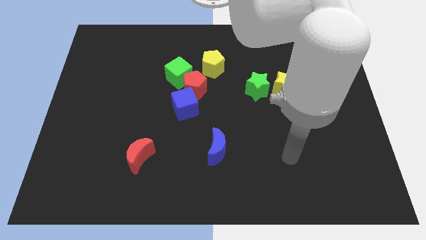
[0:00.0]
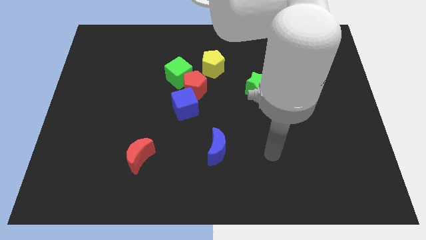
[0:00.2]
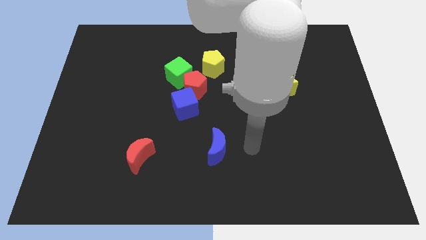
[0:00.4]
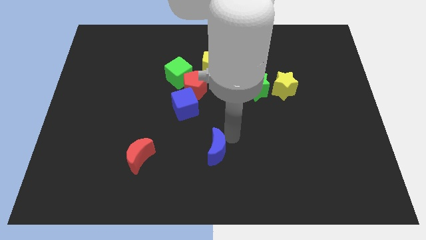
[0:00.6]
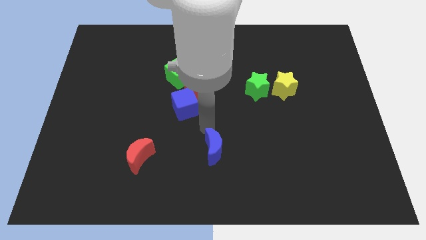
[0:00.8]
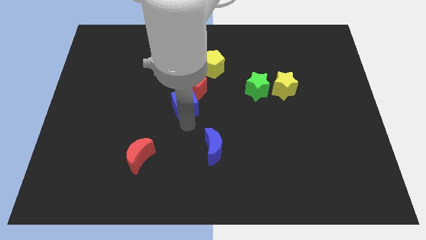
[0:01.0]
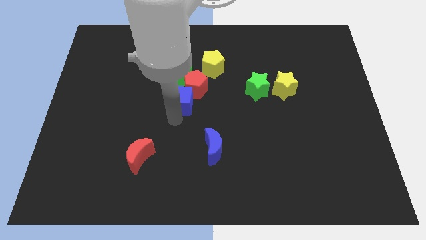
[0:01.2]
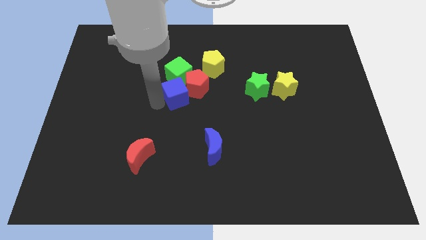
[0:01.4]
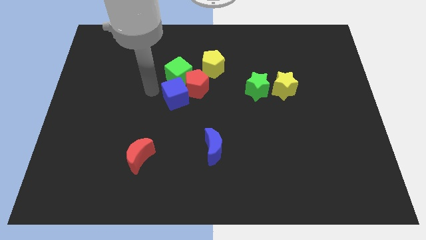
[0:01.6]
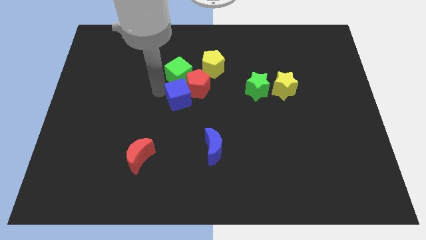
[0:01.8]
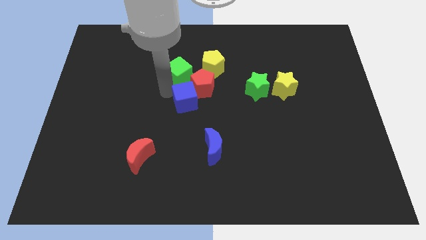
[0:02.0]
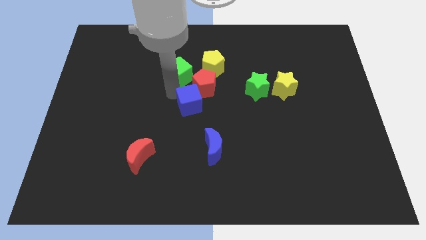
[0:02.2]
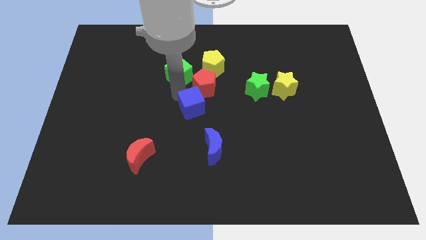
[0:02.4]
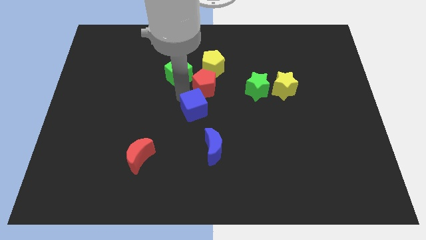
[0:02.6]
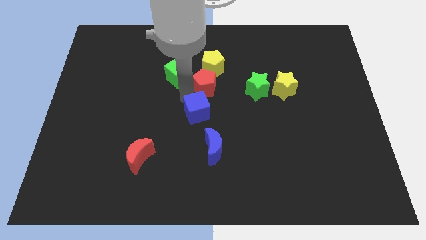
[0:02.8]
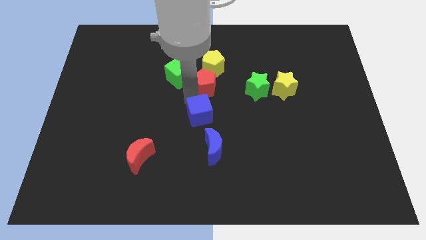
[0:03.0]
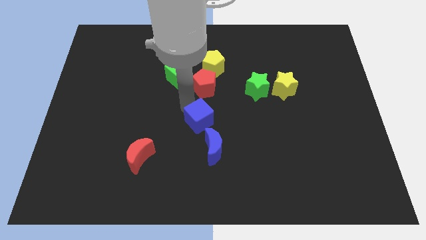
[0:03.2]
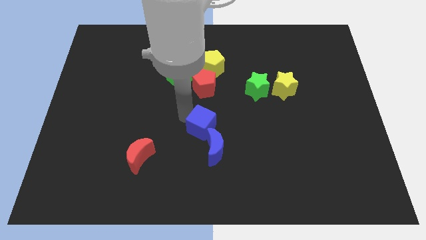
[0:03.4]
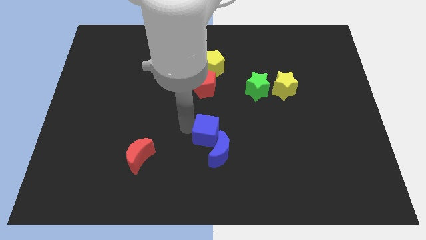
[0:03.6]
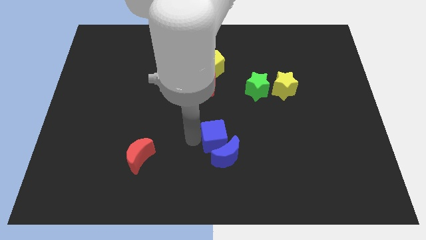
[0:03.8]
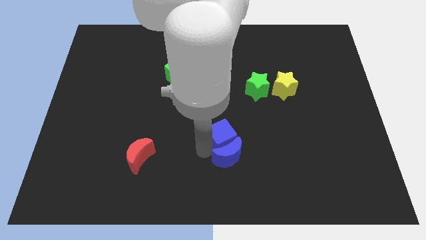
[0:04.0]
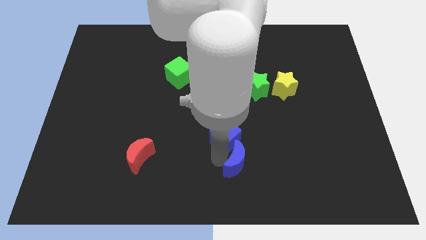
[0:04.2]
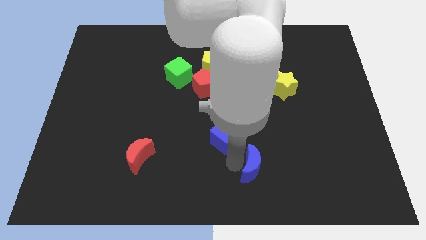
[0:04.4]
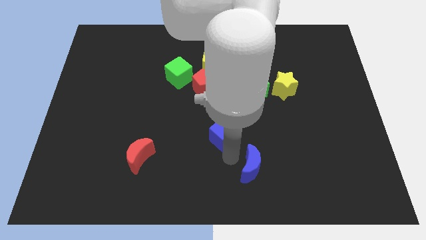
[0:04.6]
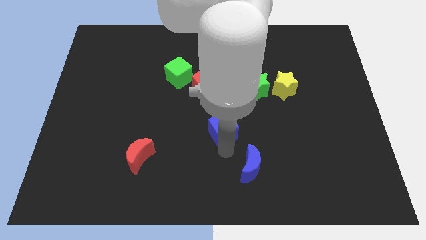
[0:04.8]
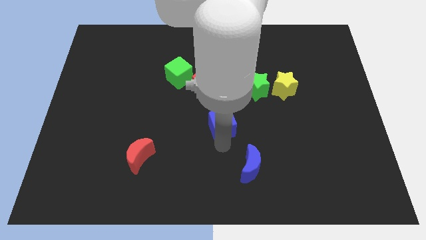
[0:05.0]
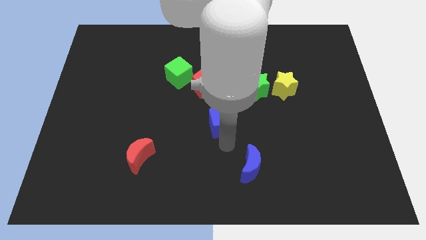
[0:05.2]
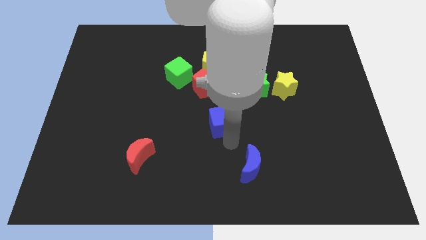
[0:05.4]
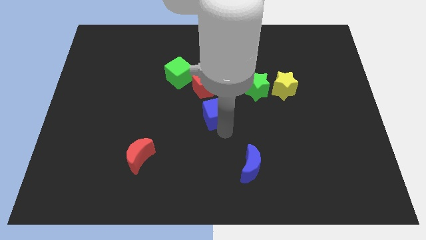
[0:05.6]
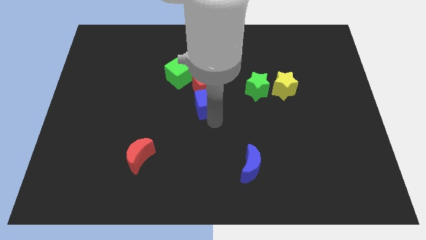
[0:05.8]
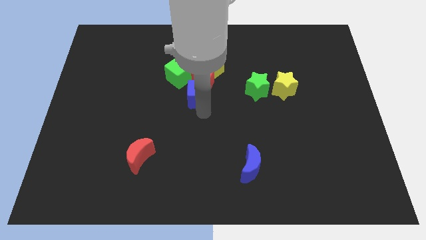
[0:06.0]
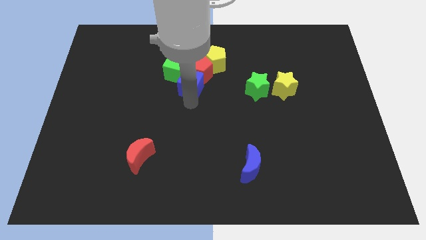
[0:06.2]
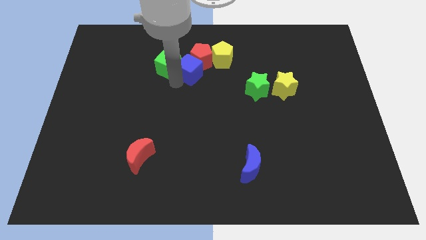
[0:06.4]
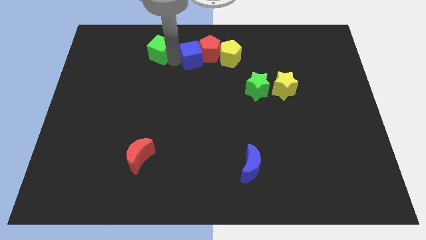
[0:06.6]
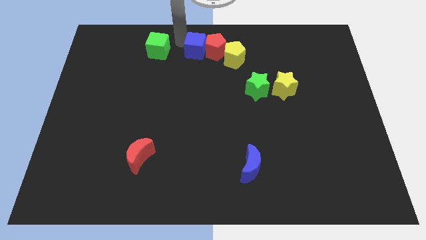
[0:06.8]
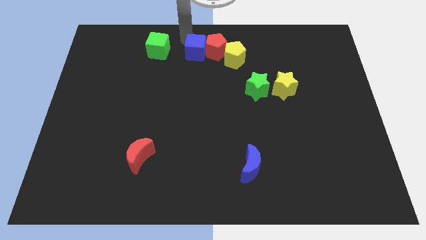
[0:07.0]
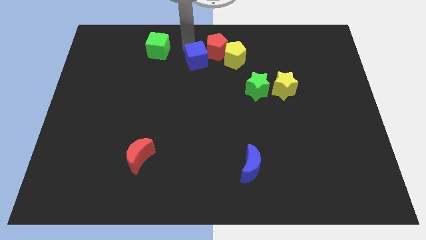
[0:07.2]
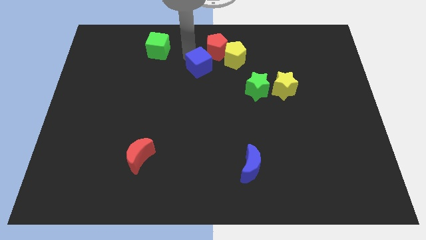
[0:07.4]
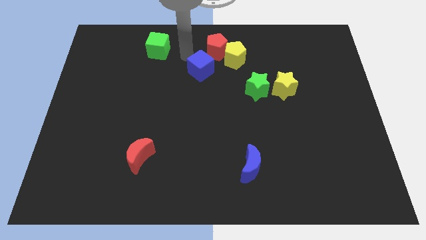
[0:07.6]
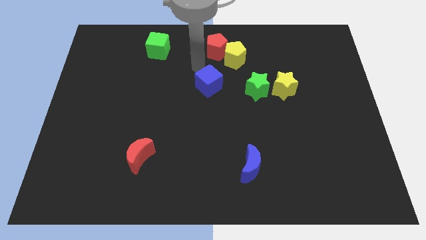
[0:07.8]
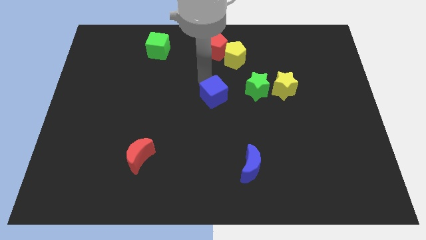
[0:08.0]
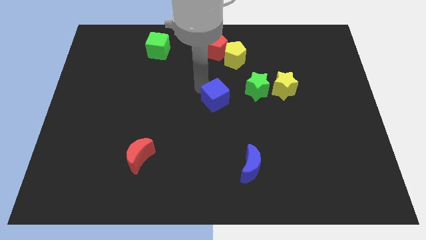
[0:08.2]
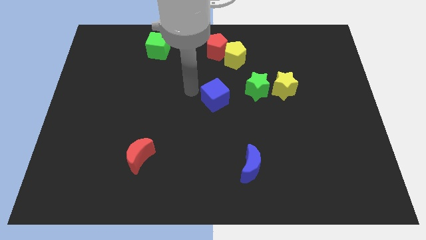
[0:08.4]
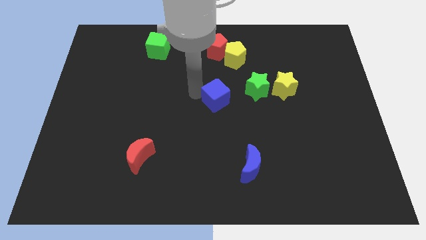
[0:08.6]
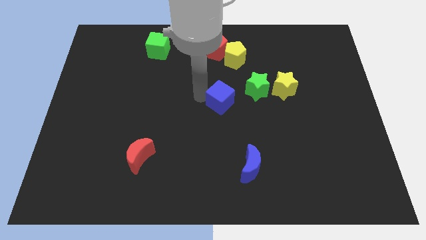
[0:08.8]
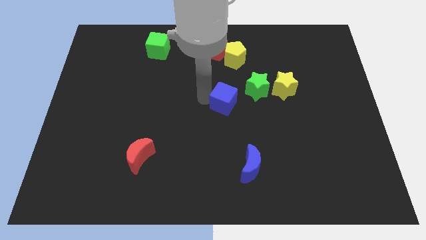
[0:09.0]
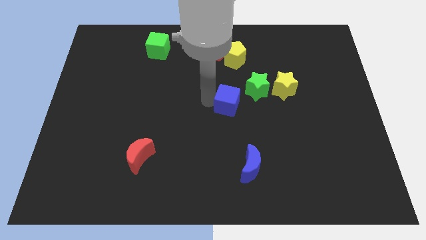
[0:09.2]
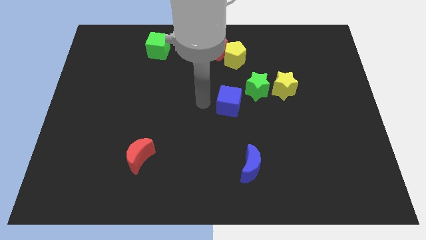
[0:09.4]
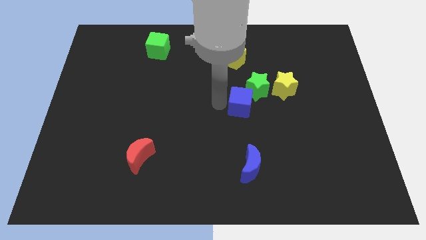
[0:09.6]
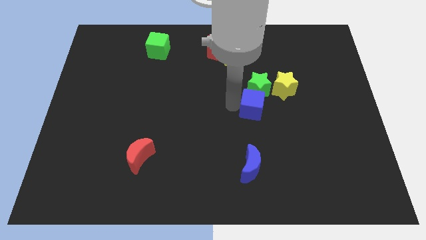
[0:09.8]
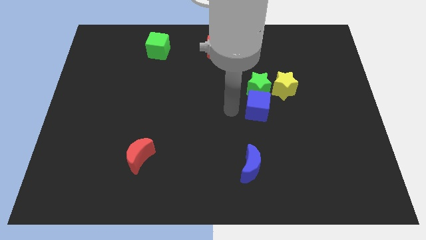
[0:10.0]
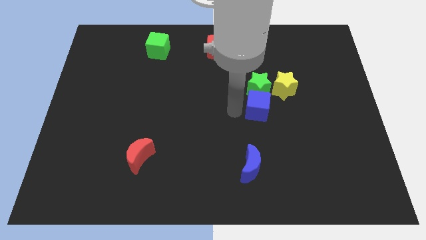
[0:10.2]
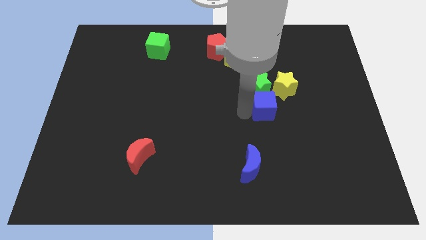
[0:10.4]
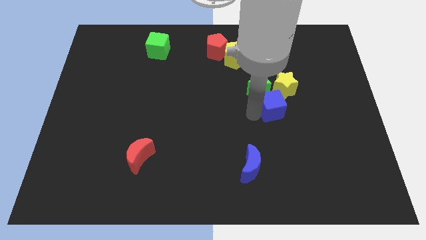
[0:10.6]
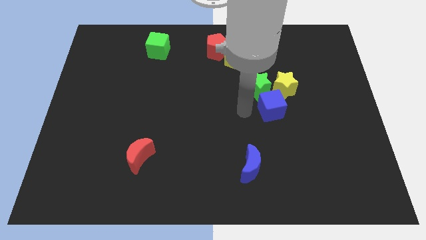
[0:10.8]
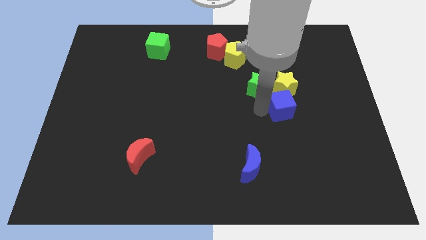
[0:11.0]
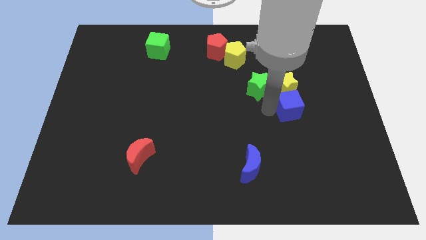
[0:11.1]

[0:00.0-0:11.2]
slide the blue cube to the bottom right side of the yellow star

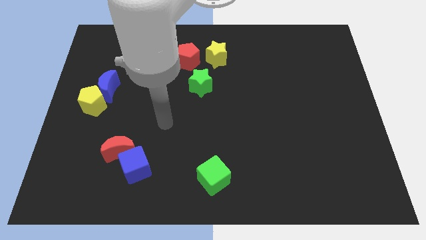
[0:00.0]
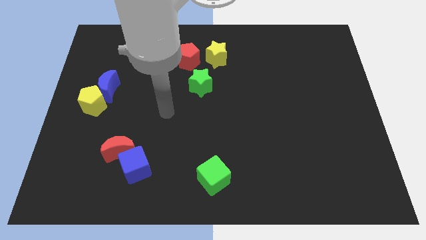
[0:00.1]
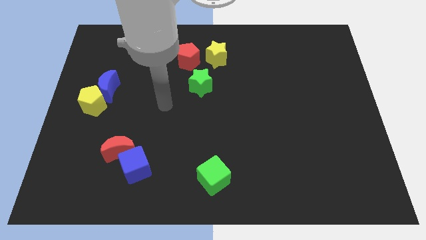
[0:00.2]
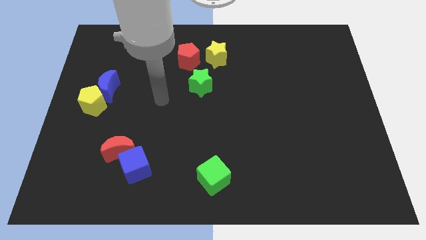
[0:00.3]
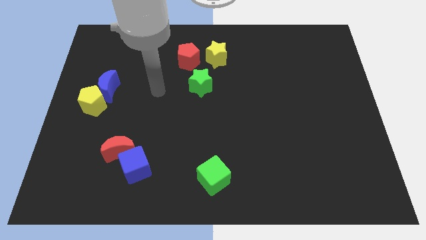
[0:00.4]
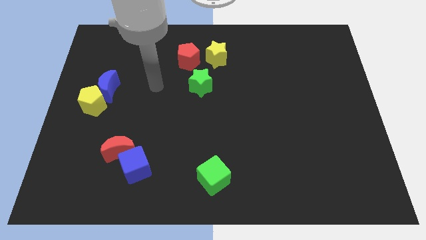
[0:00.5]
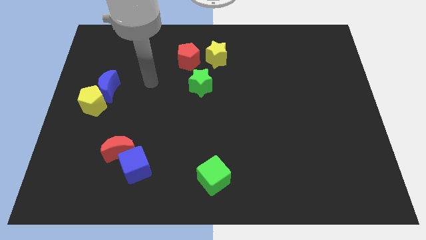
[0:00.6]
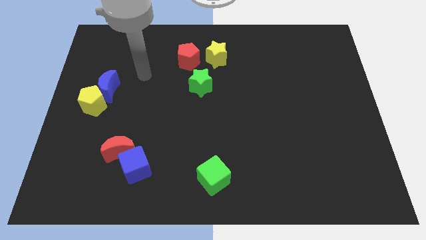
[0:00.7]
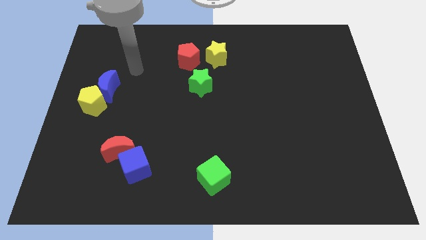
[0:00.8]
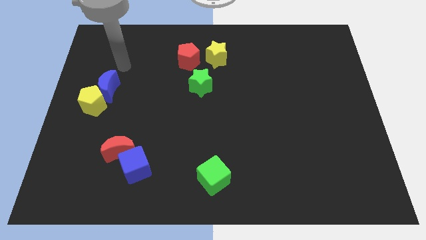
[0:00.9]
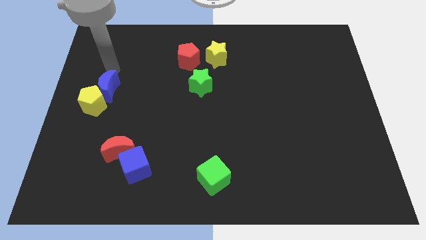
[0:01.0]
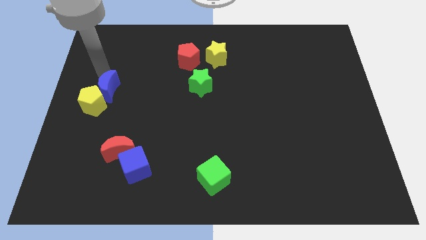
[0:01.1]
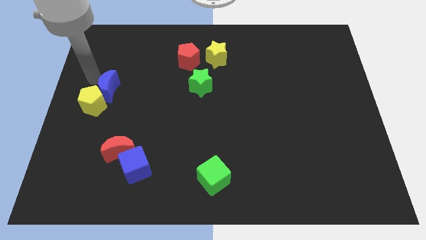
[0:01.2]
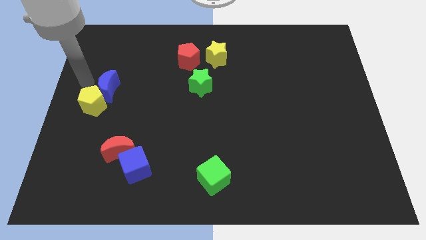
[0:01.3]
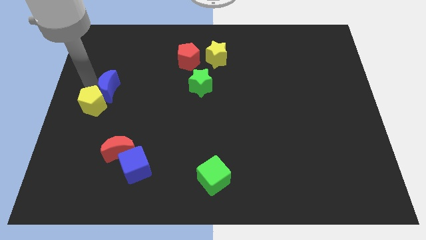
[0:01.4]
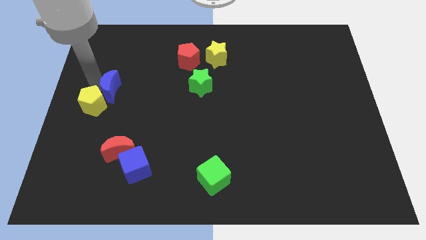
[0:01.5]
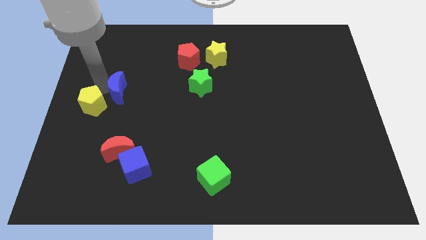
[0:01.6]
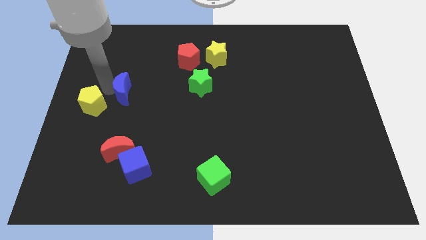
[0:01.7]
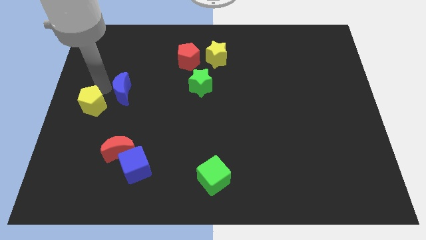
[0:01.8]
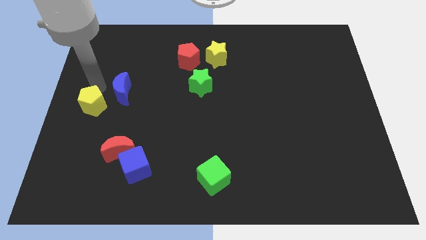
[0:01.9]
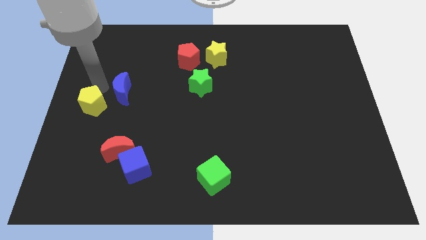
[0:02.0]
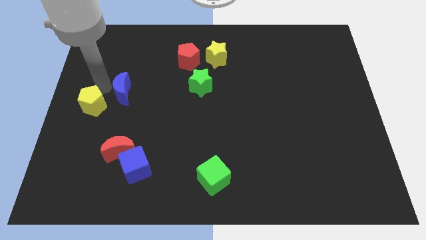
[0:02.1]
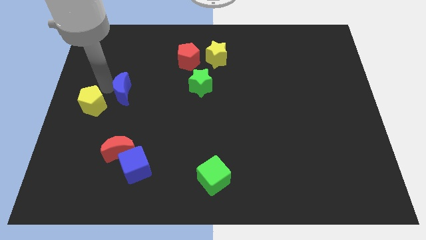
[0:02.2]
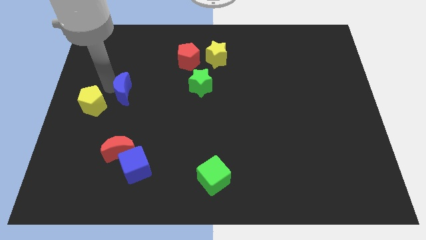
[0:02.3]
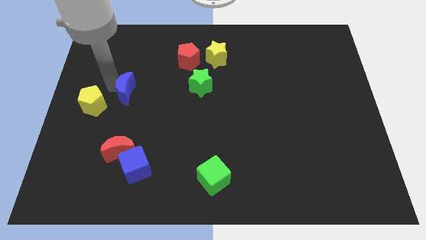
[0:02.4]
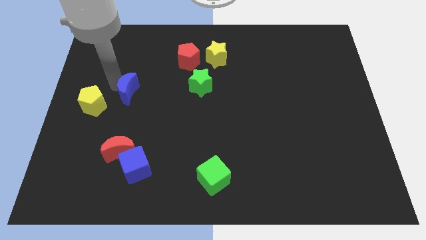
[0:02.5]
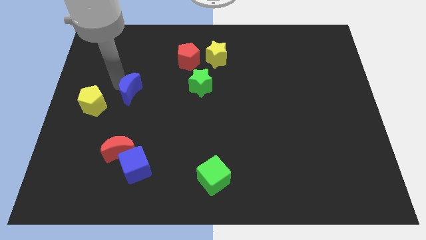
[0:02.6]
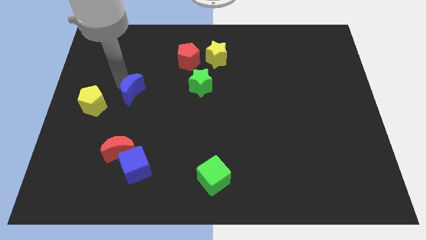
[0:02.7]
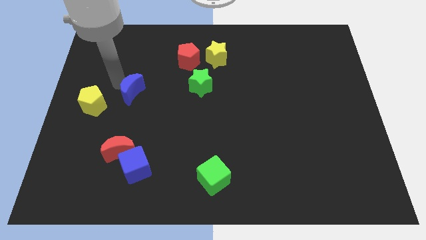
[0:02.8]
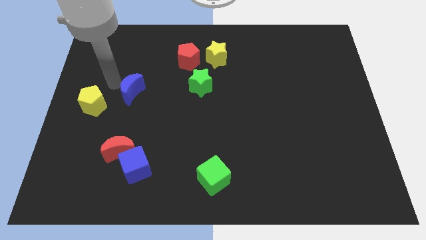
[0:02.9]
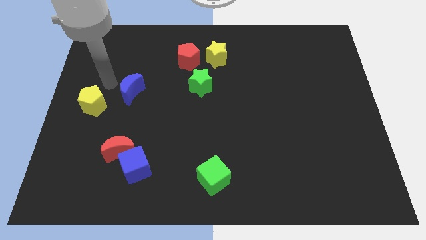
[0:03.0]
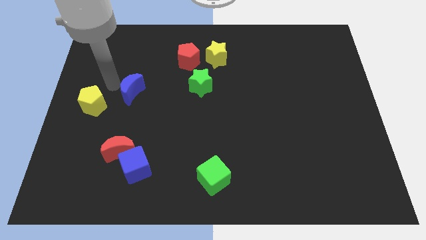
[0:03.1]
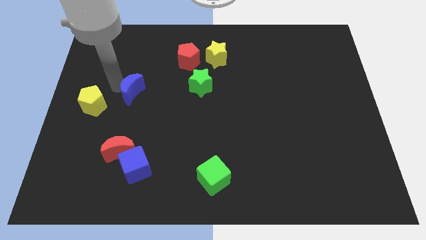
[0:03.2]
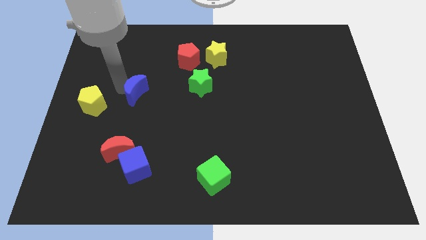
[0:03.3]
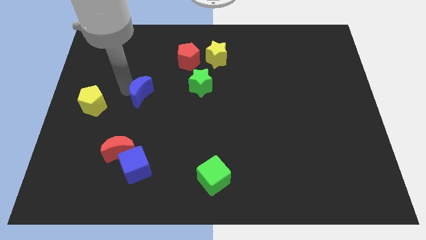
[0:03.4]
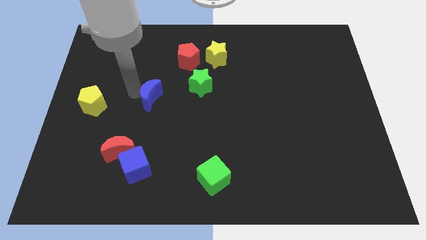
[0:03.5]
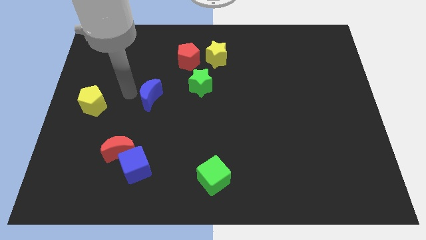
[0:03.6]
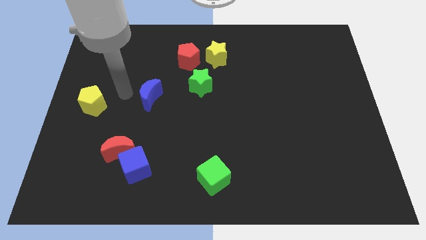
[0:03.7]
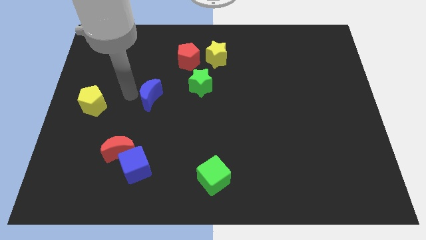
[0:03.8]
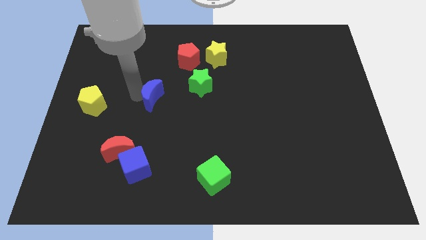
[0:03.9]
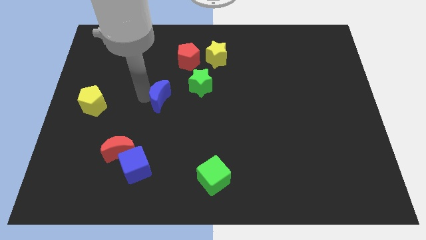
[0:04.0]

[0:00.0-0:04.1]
put the blue moon to the bottom left of the green star
